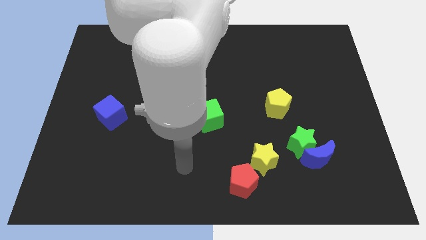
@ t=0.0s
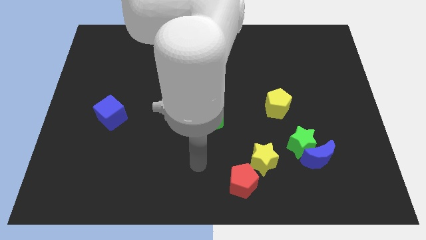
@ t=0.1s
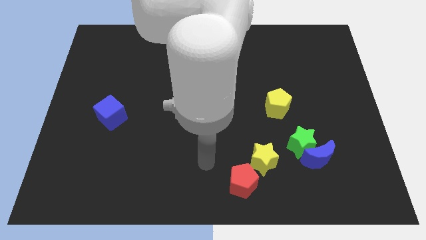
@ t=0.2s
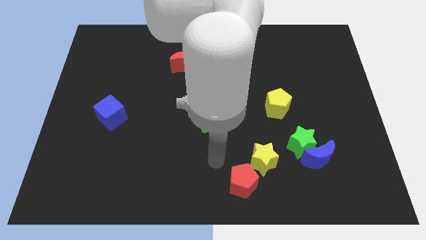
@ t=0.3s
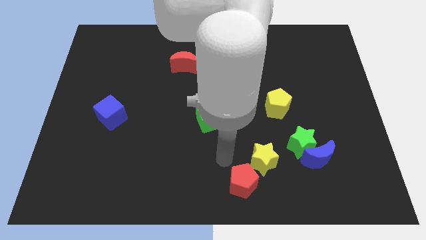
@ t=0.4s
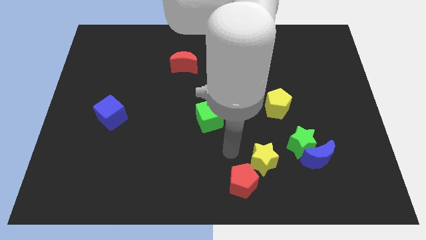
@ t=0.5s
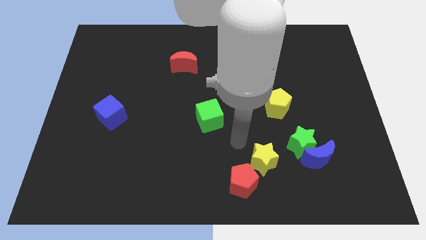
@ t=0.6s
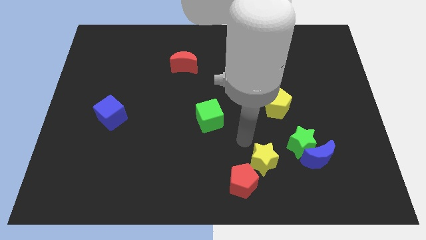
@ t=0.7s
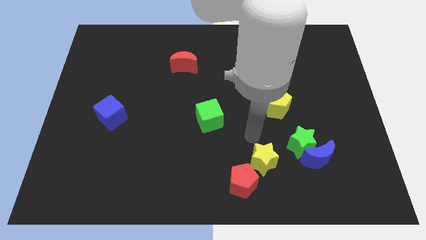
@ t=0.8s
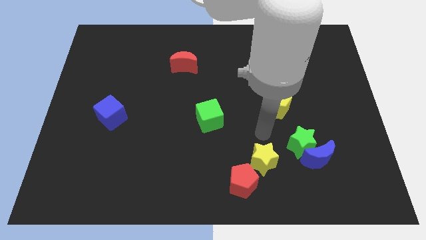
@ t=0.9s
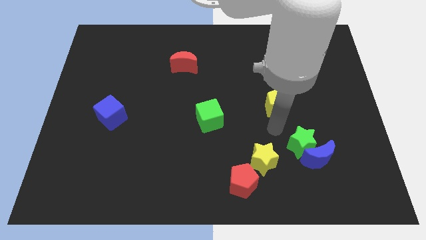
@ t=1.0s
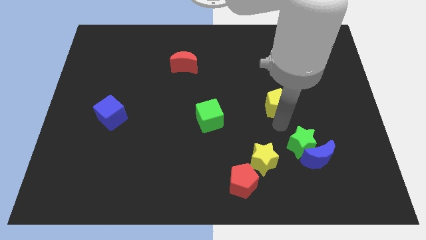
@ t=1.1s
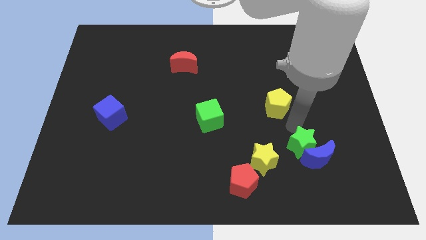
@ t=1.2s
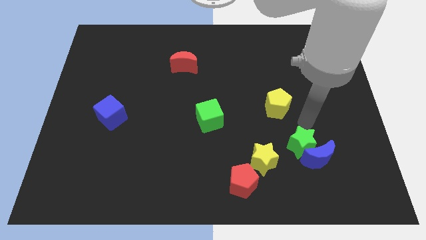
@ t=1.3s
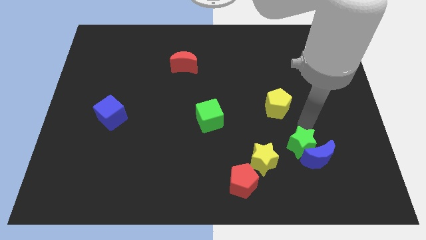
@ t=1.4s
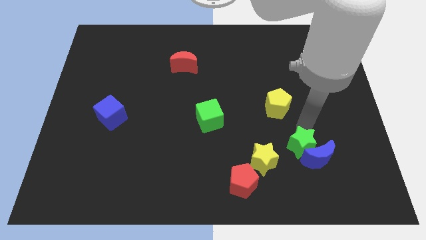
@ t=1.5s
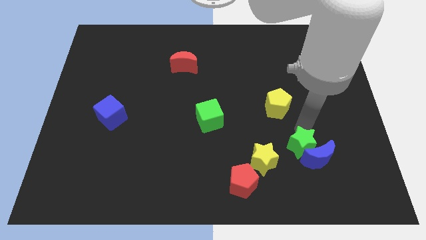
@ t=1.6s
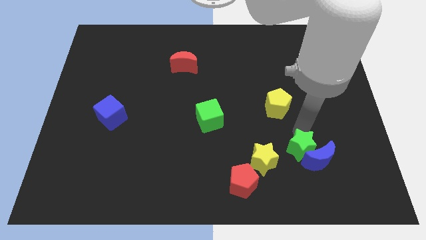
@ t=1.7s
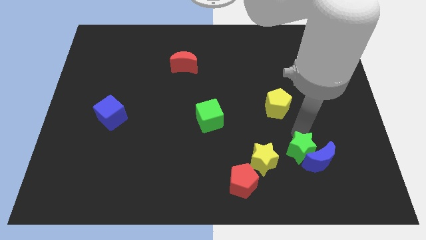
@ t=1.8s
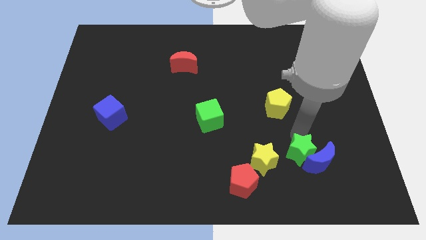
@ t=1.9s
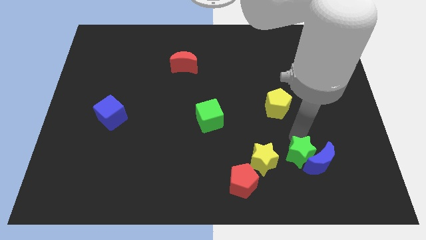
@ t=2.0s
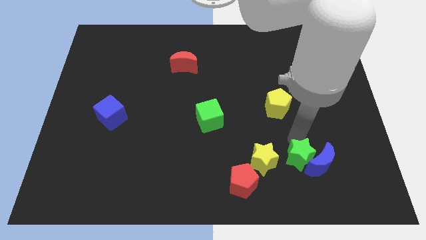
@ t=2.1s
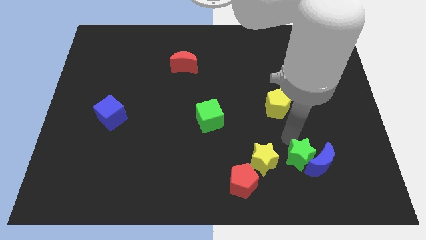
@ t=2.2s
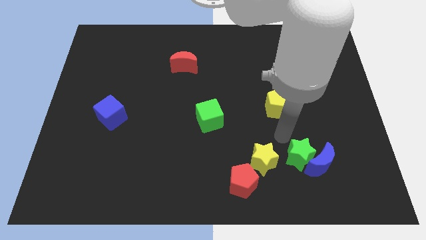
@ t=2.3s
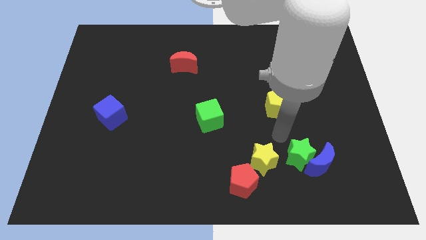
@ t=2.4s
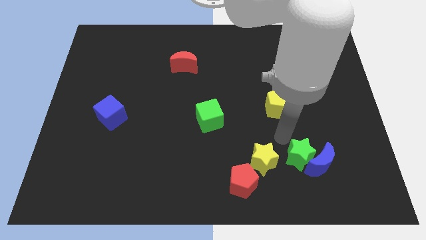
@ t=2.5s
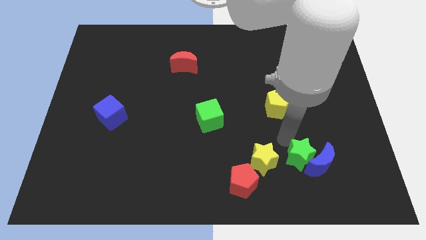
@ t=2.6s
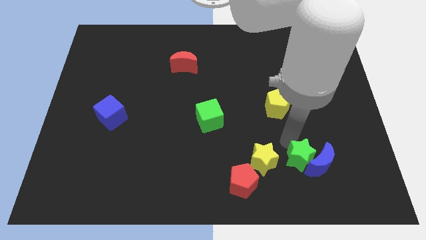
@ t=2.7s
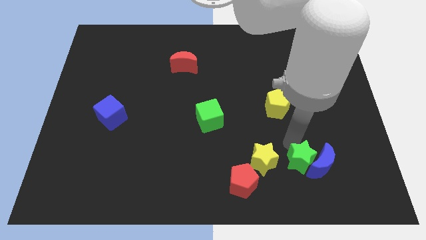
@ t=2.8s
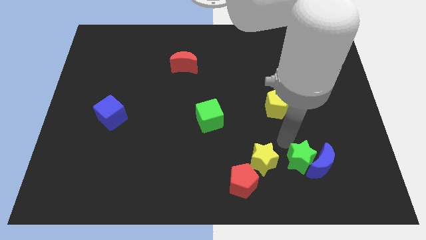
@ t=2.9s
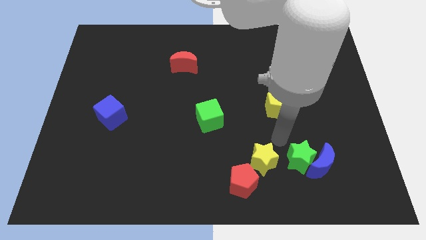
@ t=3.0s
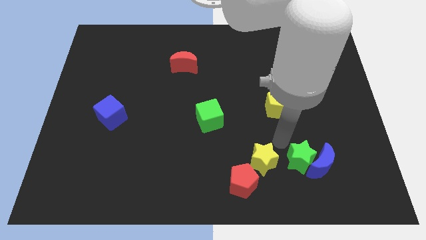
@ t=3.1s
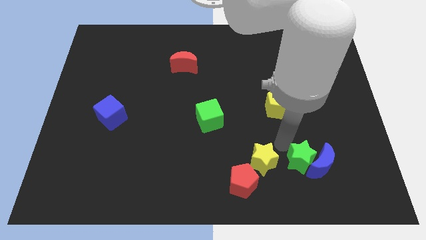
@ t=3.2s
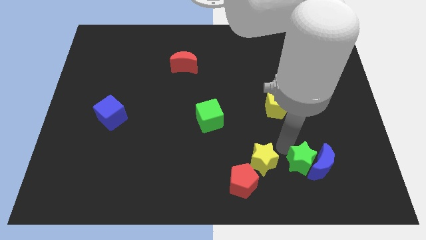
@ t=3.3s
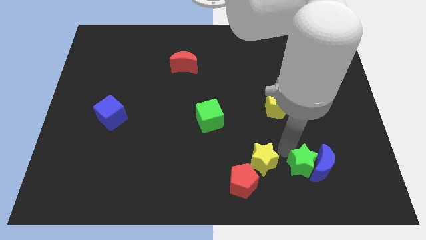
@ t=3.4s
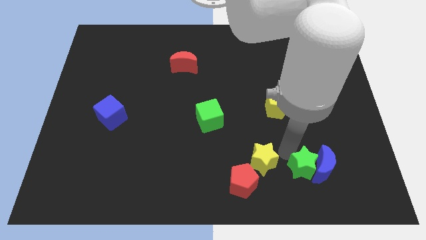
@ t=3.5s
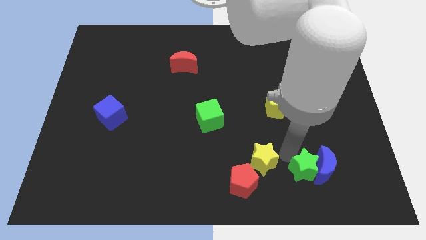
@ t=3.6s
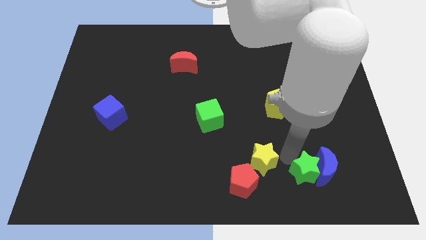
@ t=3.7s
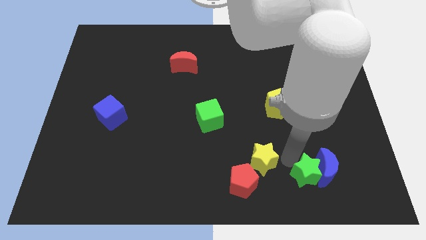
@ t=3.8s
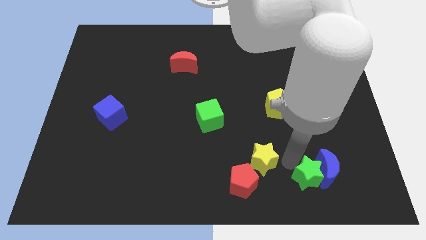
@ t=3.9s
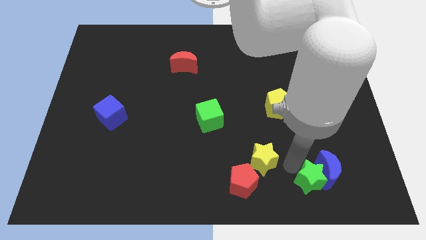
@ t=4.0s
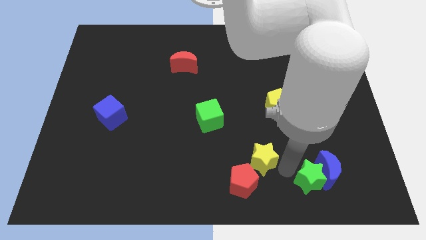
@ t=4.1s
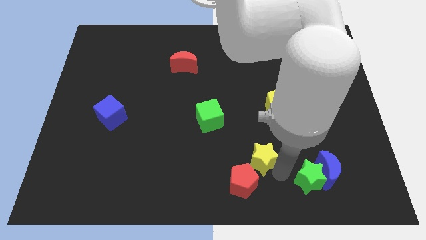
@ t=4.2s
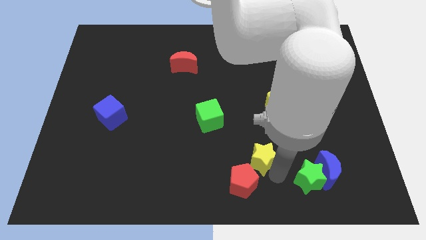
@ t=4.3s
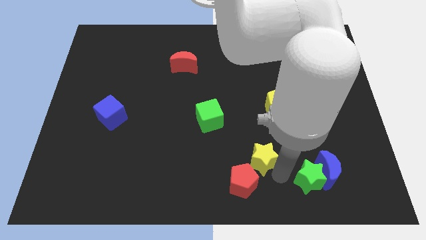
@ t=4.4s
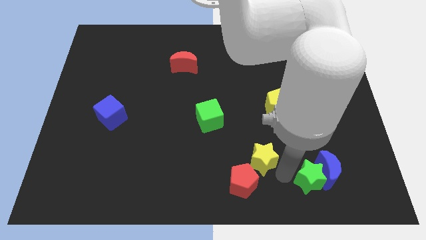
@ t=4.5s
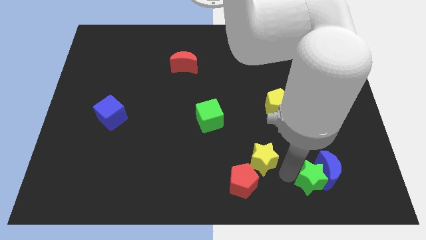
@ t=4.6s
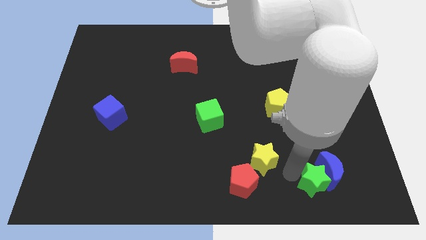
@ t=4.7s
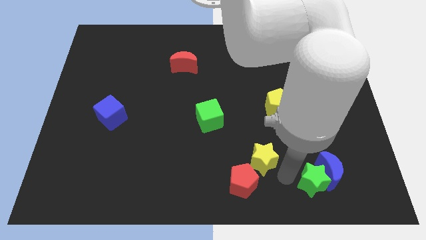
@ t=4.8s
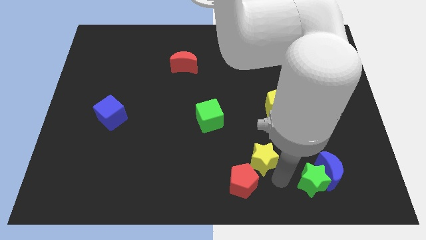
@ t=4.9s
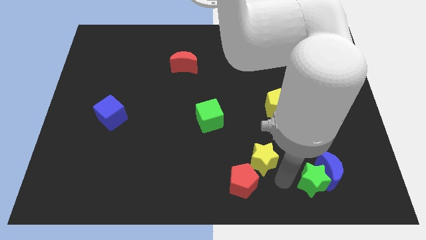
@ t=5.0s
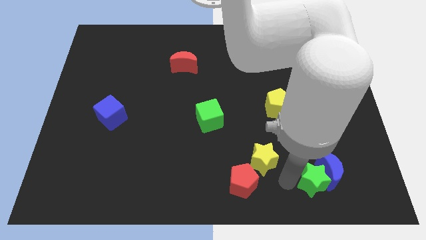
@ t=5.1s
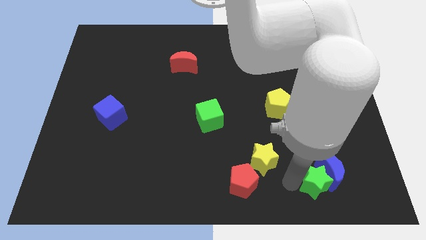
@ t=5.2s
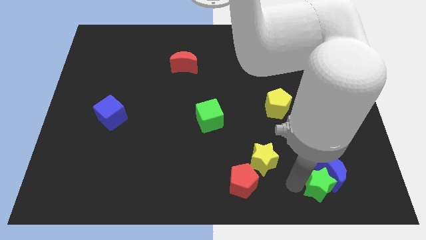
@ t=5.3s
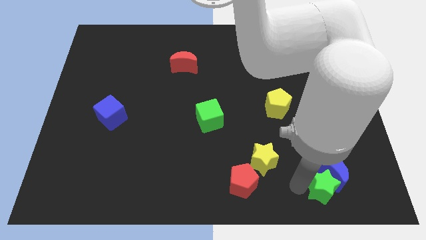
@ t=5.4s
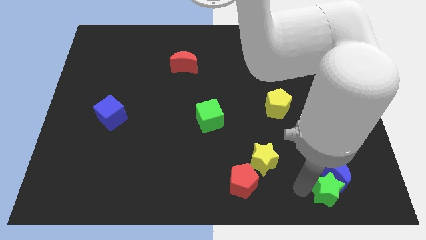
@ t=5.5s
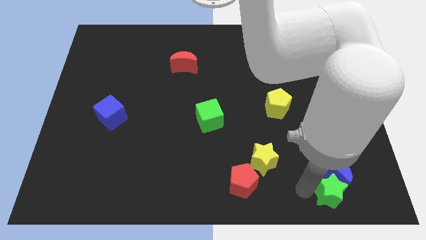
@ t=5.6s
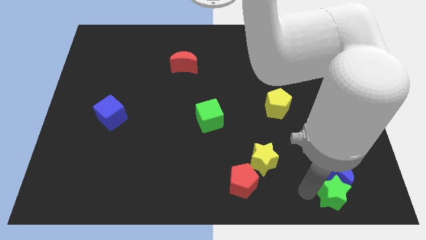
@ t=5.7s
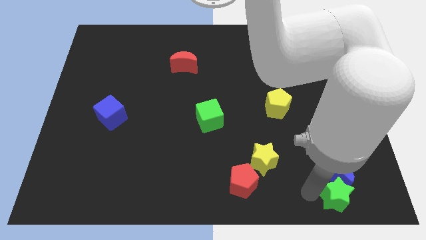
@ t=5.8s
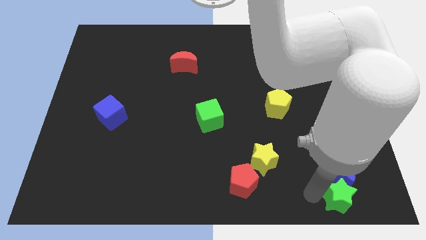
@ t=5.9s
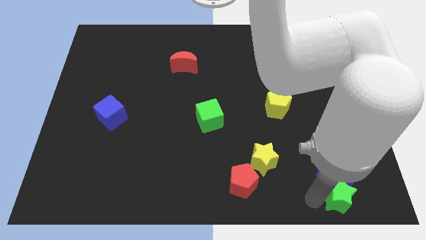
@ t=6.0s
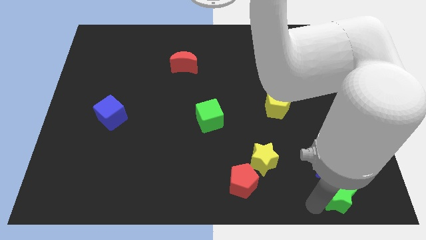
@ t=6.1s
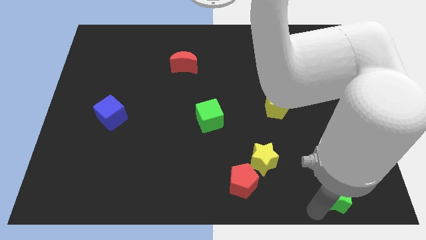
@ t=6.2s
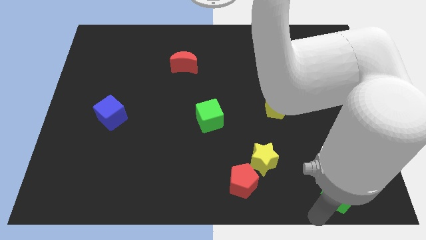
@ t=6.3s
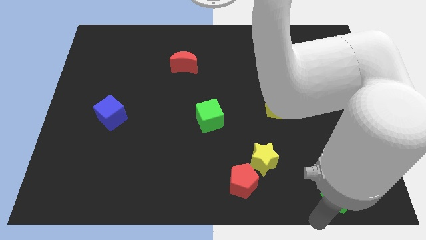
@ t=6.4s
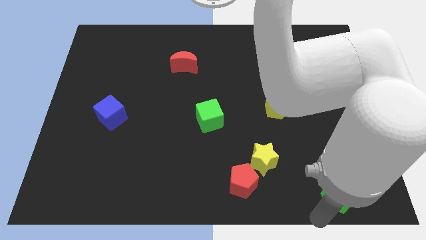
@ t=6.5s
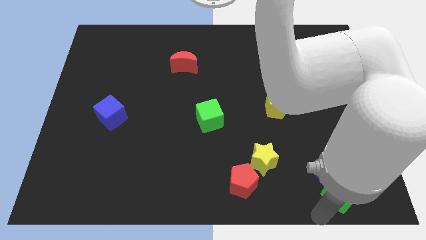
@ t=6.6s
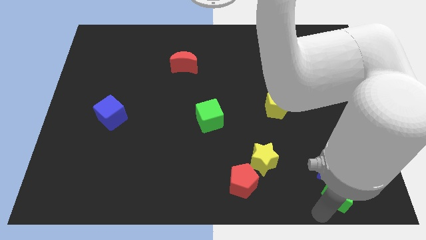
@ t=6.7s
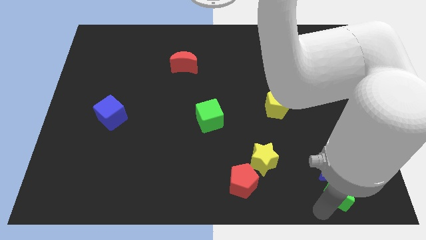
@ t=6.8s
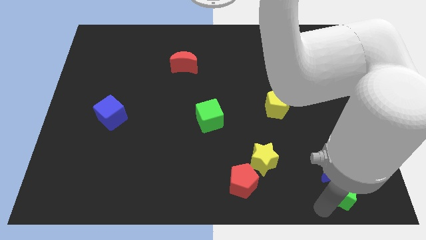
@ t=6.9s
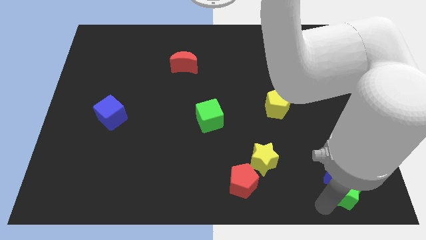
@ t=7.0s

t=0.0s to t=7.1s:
move the green star to the bottom right corner

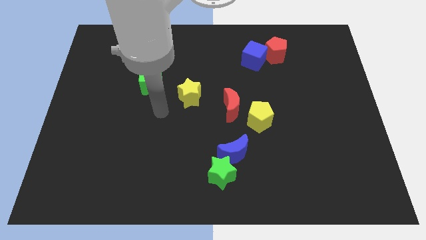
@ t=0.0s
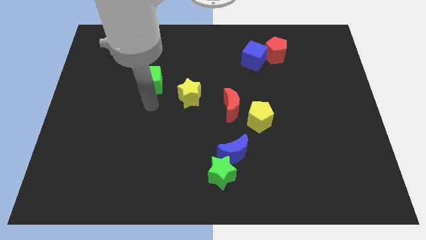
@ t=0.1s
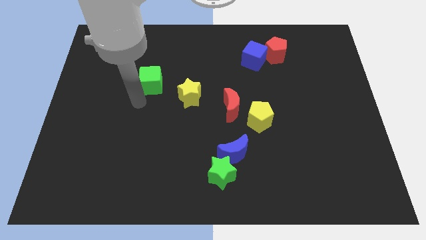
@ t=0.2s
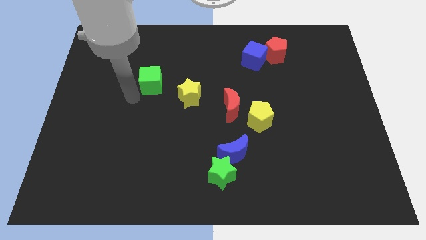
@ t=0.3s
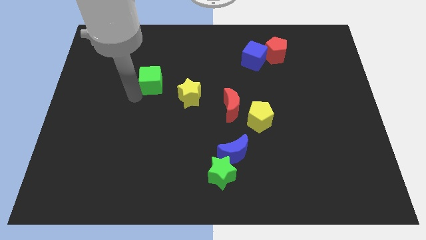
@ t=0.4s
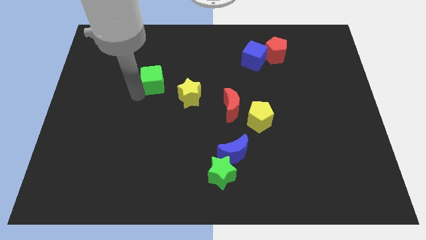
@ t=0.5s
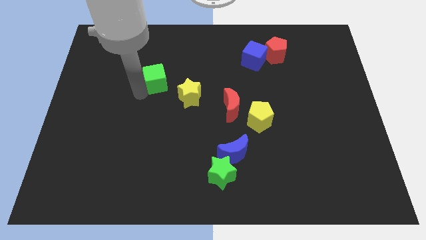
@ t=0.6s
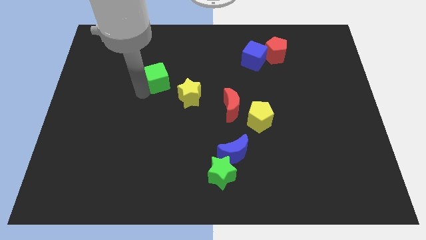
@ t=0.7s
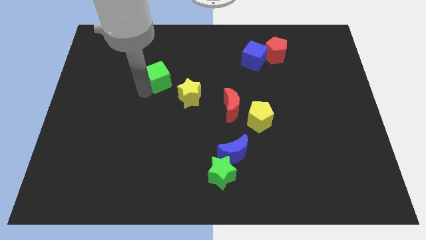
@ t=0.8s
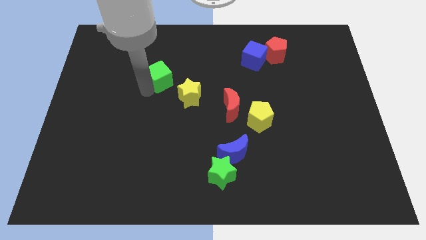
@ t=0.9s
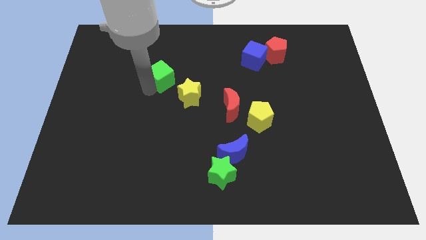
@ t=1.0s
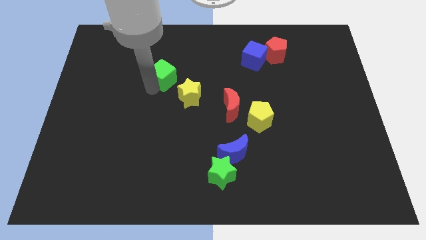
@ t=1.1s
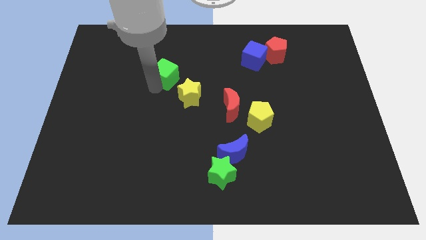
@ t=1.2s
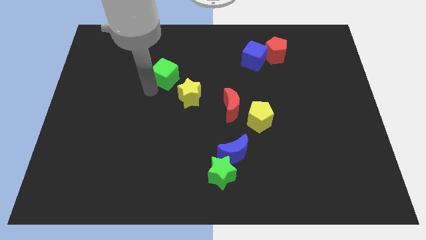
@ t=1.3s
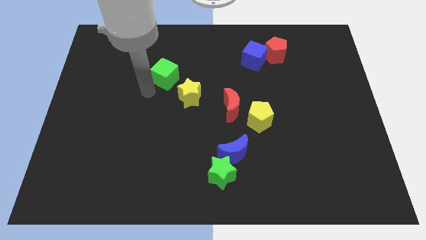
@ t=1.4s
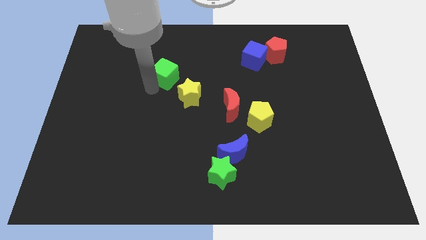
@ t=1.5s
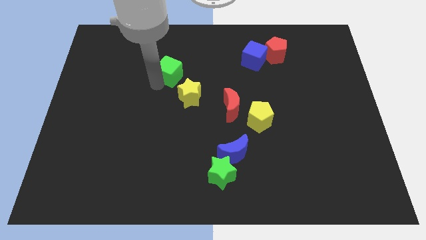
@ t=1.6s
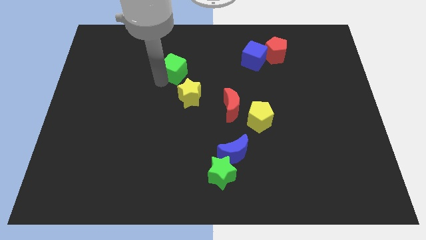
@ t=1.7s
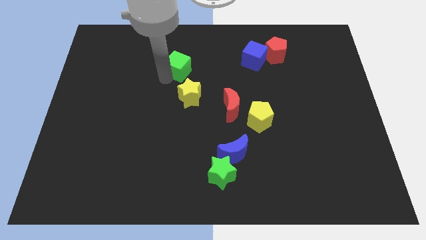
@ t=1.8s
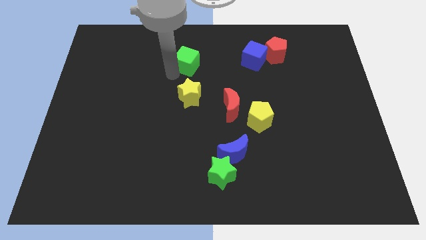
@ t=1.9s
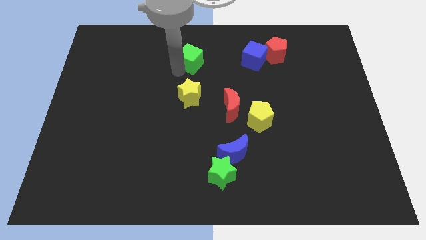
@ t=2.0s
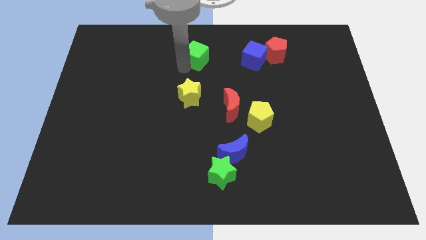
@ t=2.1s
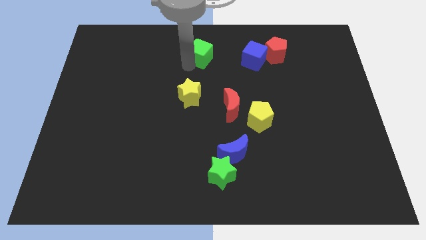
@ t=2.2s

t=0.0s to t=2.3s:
slide the green cube to the top side
